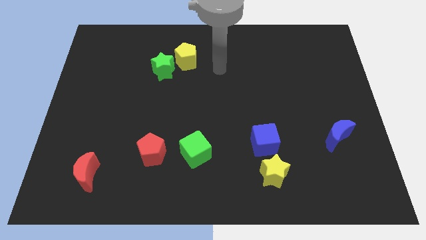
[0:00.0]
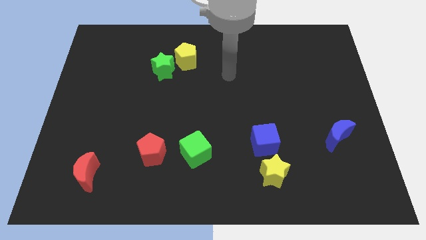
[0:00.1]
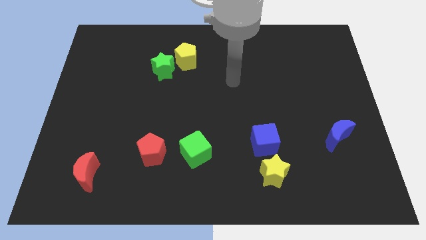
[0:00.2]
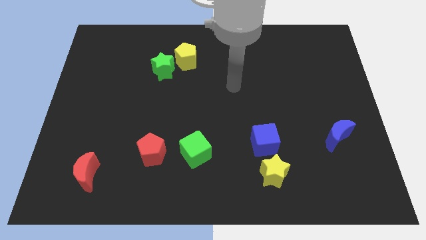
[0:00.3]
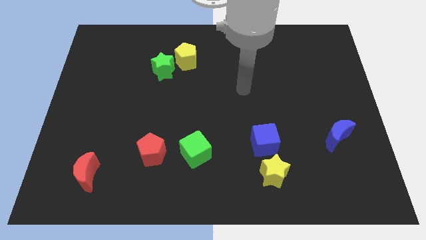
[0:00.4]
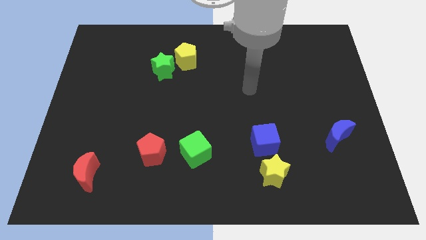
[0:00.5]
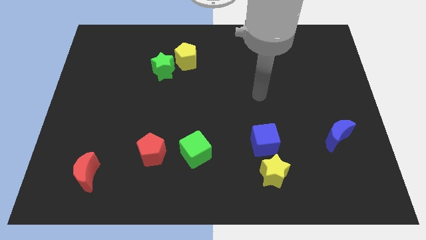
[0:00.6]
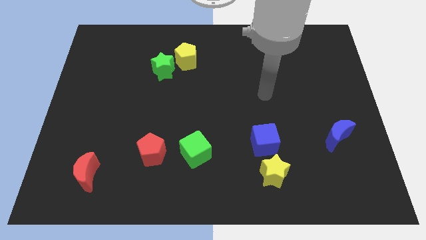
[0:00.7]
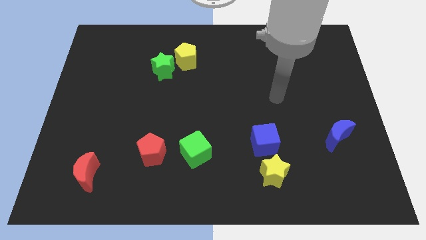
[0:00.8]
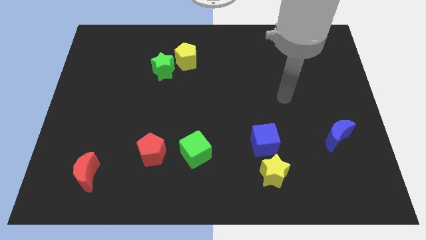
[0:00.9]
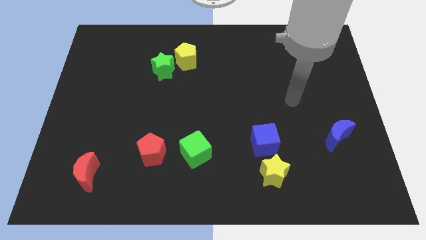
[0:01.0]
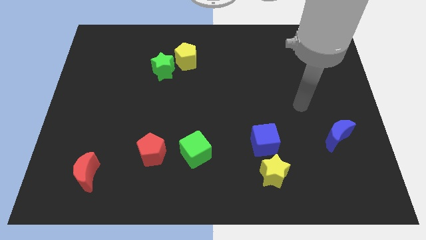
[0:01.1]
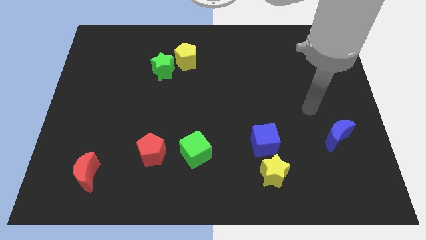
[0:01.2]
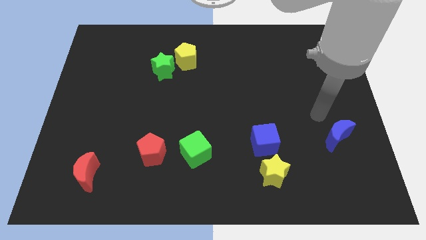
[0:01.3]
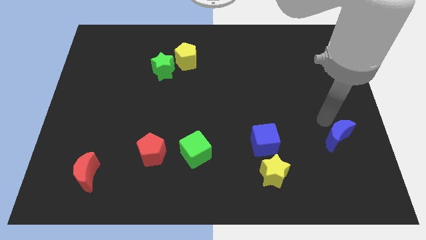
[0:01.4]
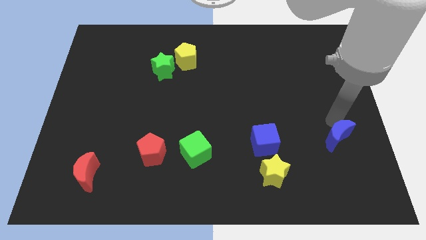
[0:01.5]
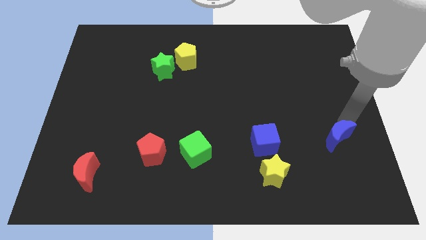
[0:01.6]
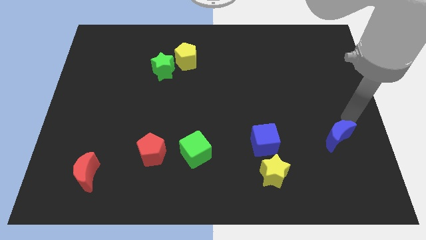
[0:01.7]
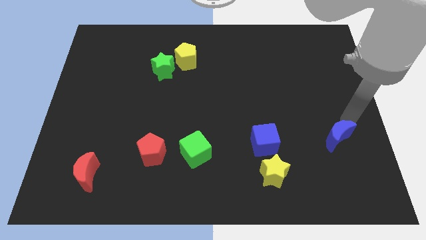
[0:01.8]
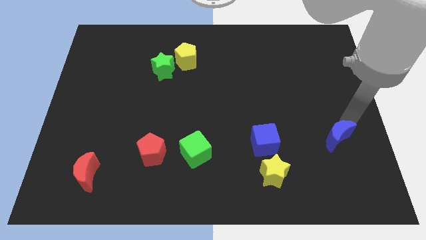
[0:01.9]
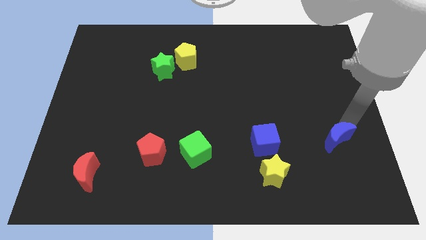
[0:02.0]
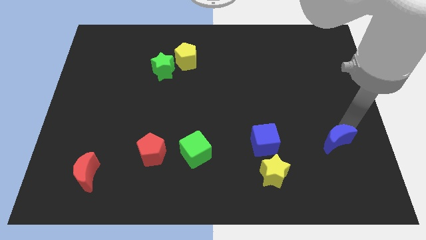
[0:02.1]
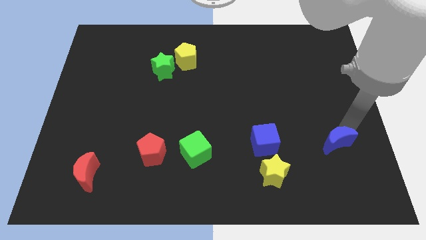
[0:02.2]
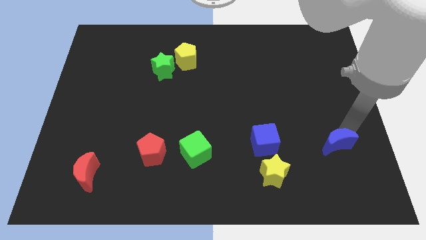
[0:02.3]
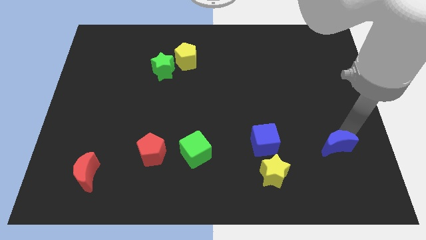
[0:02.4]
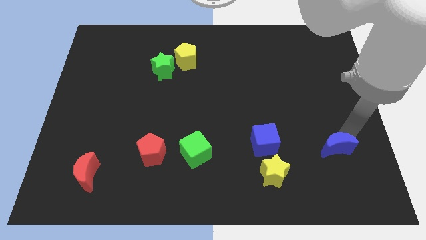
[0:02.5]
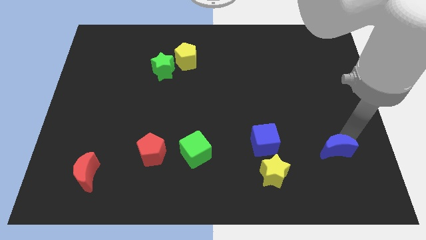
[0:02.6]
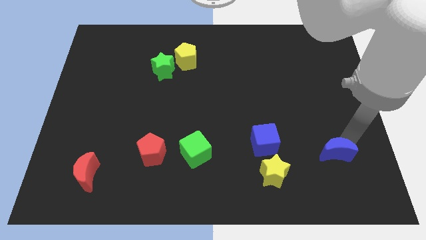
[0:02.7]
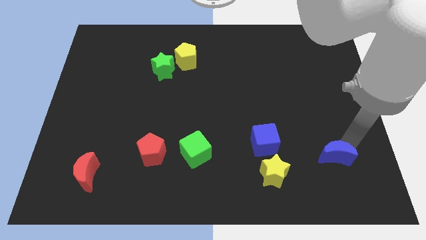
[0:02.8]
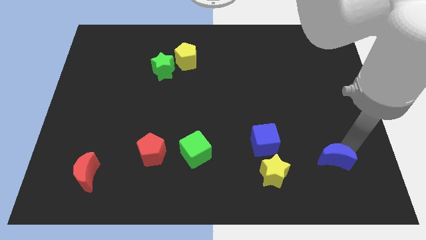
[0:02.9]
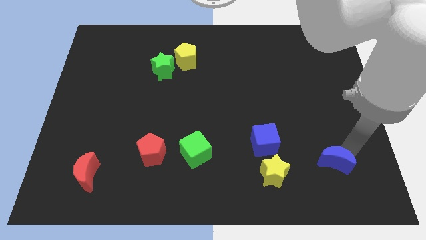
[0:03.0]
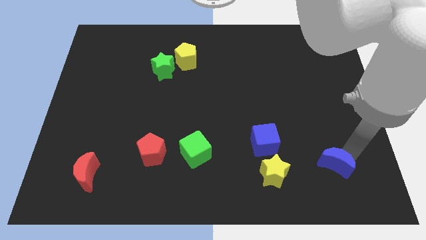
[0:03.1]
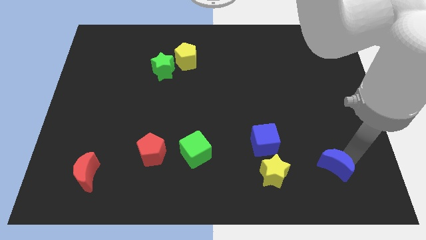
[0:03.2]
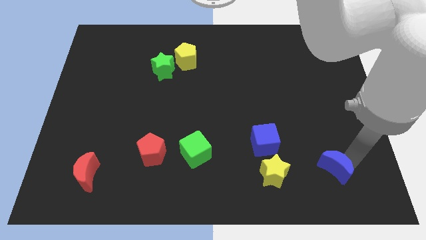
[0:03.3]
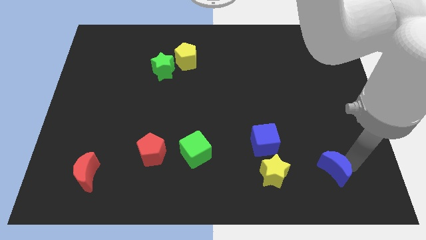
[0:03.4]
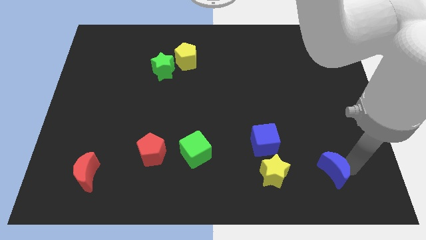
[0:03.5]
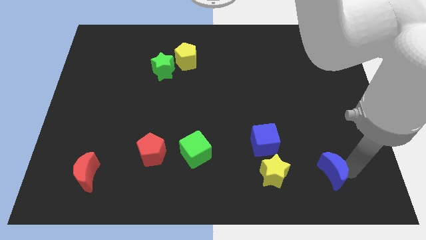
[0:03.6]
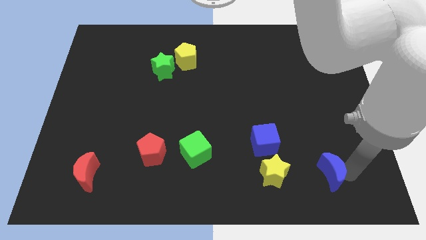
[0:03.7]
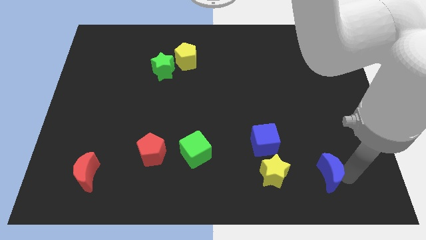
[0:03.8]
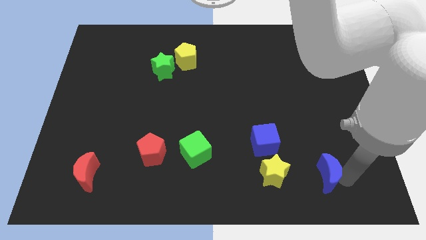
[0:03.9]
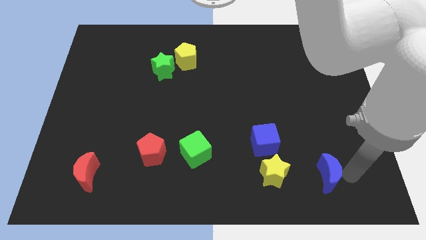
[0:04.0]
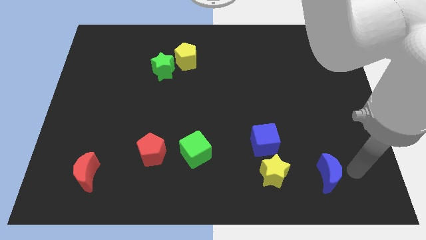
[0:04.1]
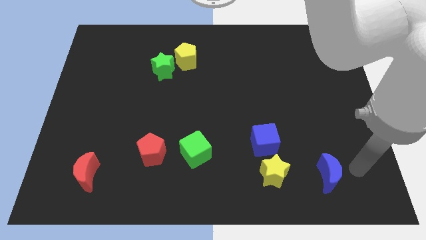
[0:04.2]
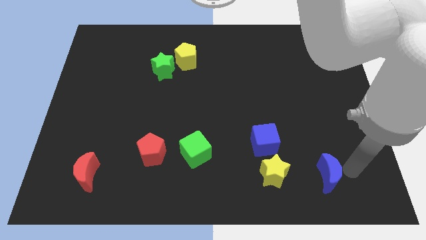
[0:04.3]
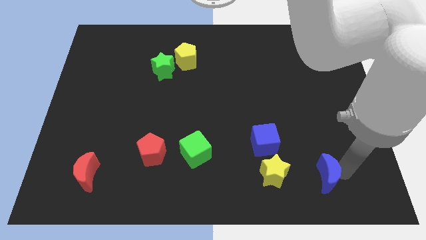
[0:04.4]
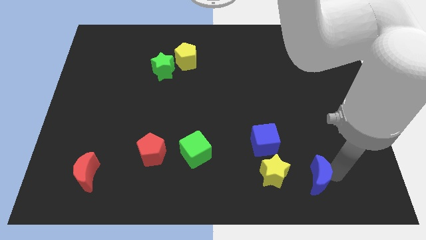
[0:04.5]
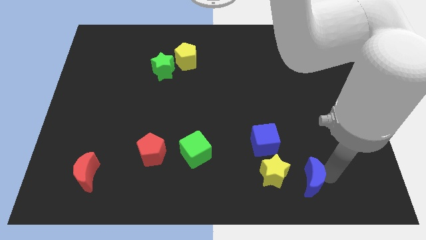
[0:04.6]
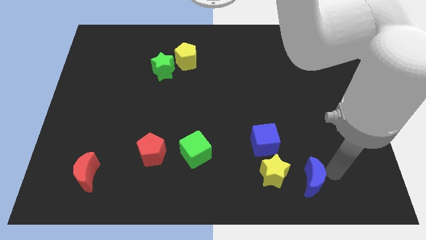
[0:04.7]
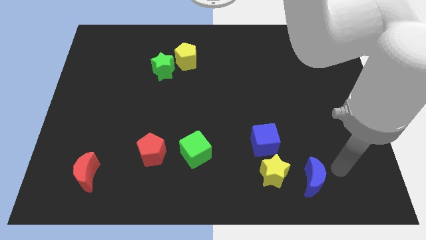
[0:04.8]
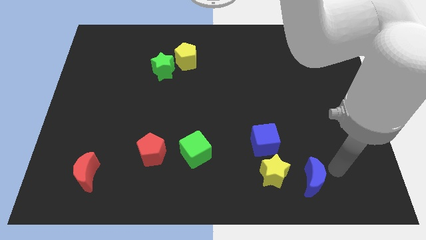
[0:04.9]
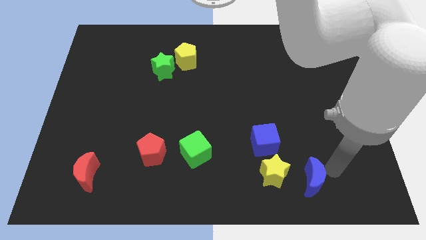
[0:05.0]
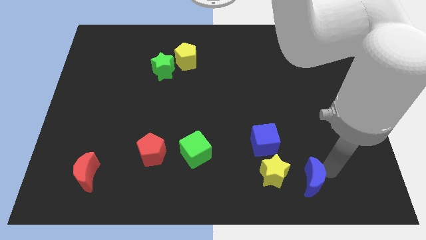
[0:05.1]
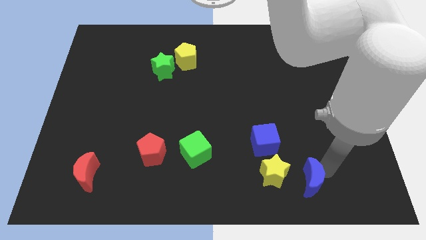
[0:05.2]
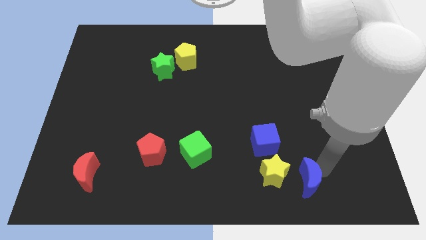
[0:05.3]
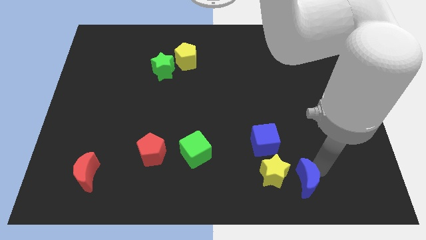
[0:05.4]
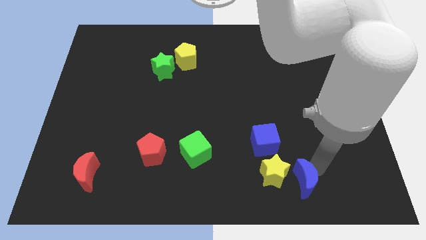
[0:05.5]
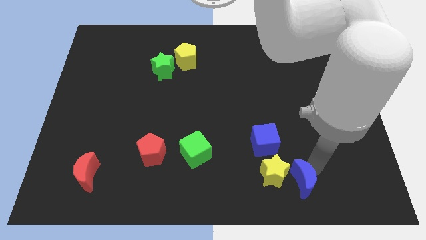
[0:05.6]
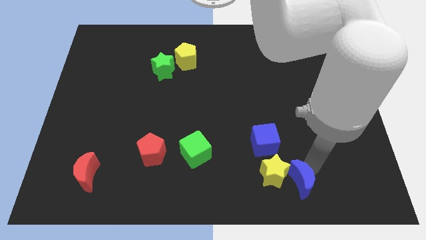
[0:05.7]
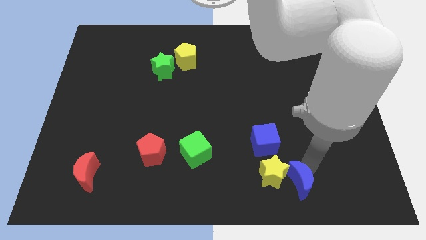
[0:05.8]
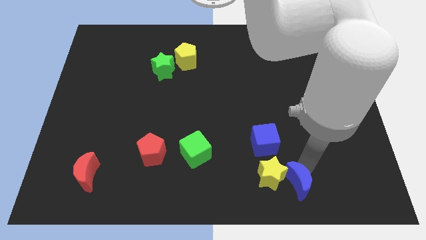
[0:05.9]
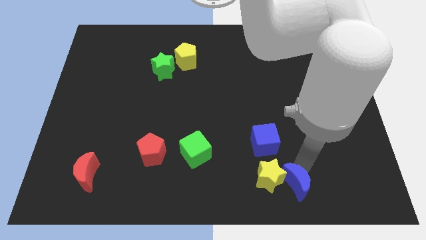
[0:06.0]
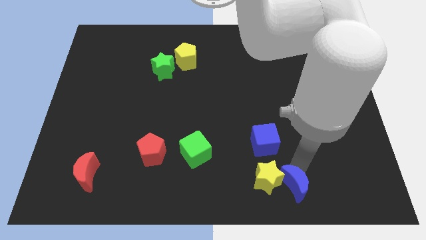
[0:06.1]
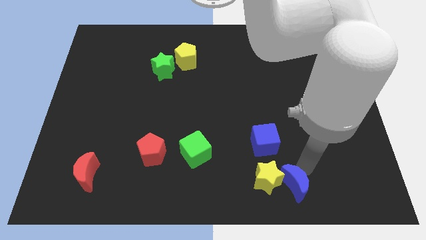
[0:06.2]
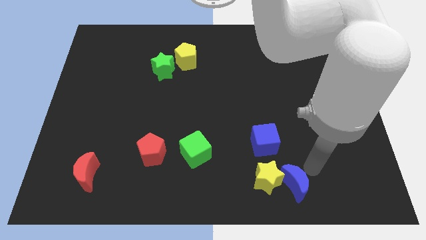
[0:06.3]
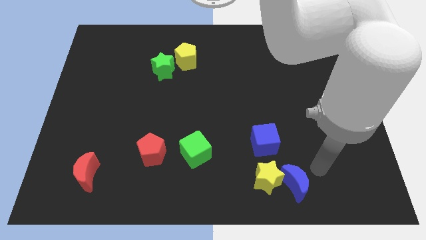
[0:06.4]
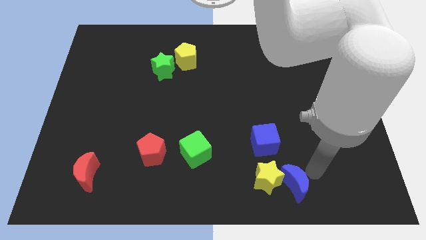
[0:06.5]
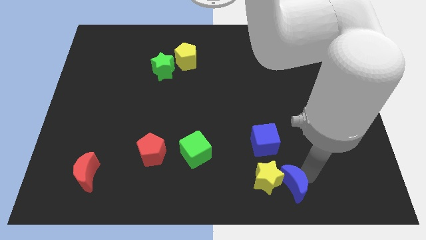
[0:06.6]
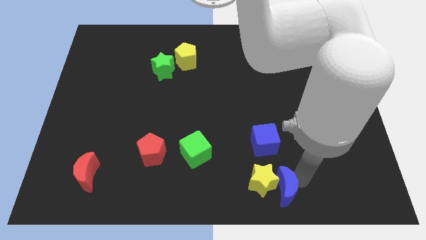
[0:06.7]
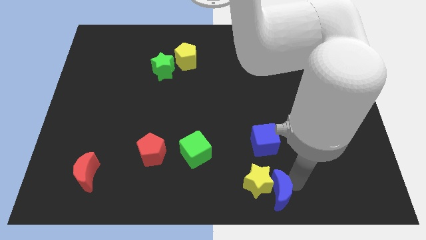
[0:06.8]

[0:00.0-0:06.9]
put the blue moon to the bottom
